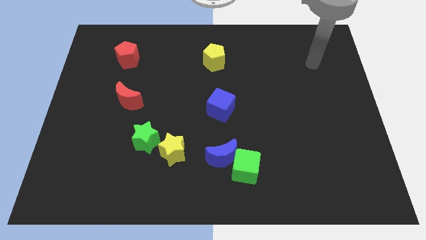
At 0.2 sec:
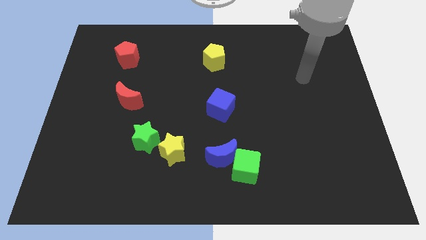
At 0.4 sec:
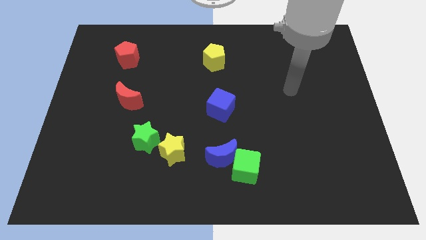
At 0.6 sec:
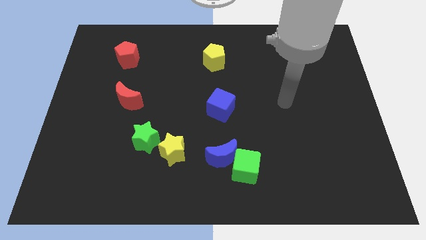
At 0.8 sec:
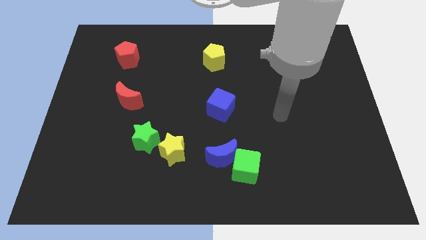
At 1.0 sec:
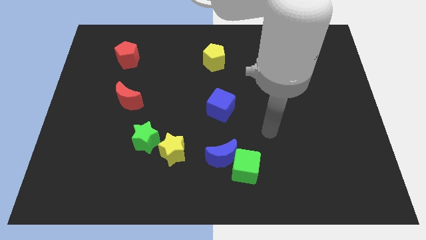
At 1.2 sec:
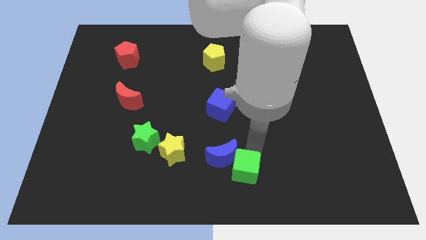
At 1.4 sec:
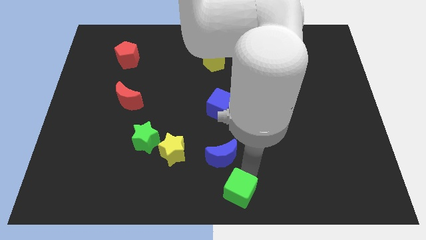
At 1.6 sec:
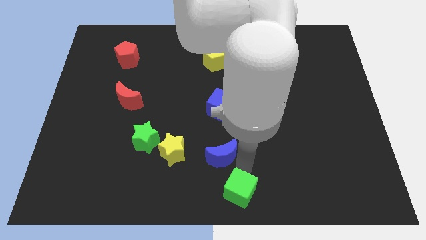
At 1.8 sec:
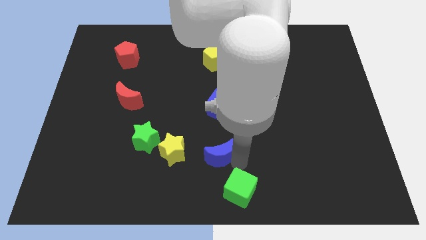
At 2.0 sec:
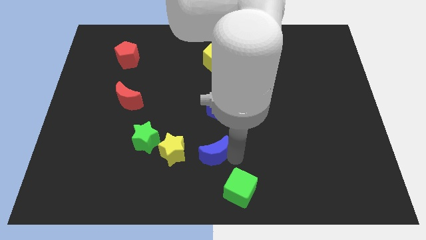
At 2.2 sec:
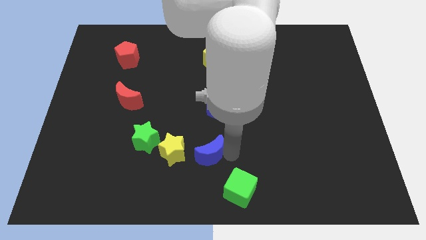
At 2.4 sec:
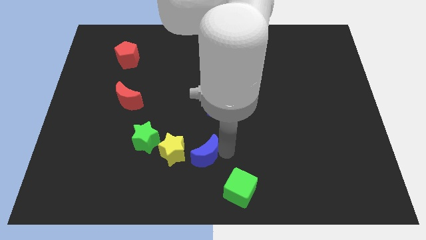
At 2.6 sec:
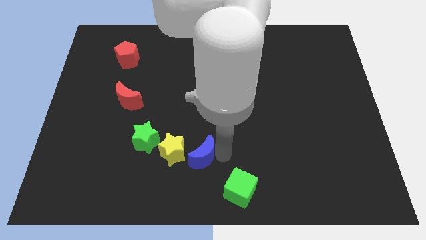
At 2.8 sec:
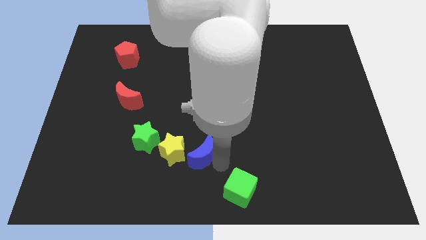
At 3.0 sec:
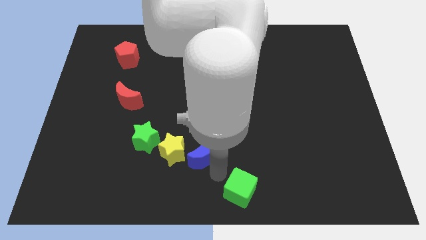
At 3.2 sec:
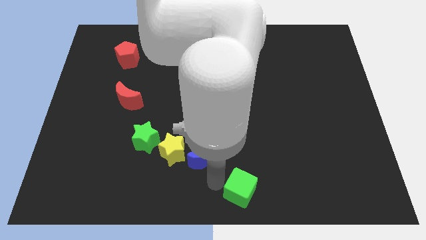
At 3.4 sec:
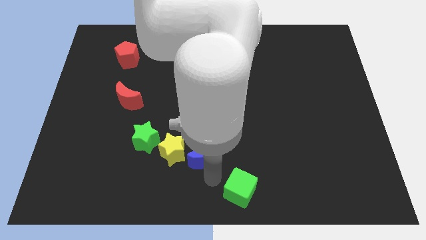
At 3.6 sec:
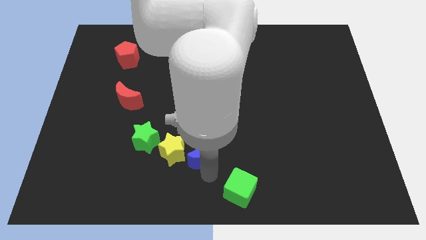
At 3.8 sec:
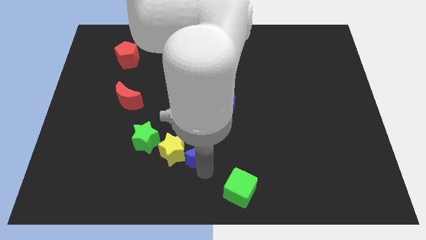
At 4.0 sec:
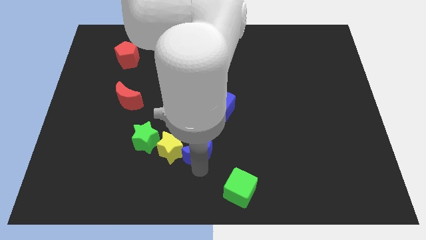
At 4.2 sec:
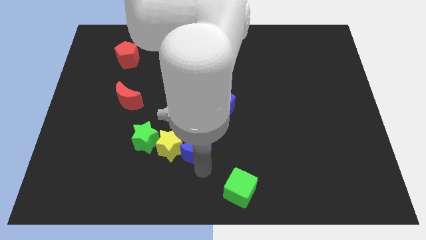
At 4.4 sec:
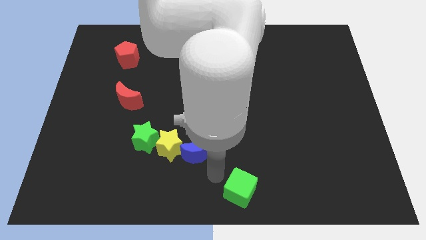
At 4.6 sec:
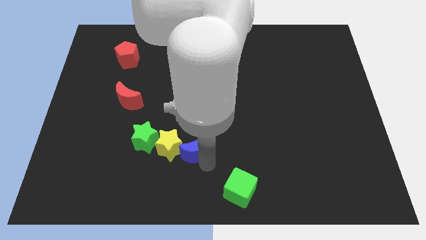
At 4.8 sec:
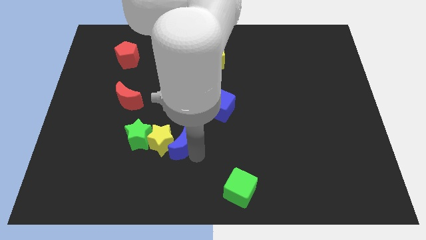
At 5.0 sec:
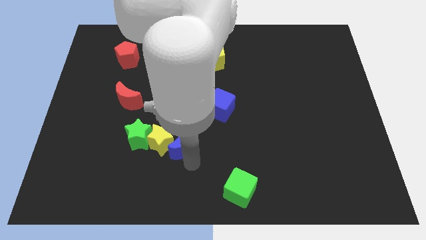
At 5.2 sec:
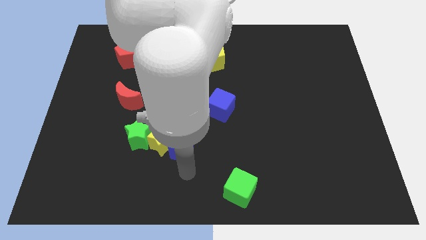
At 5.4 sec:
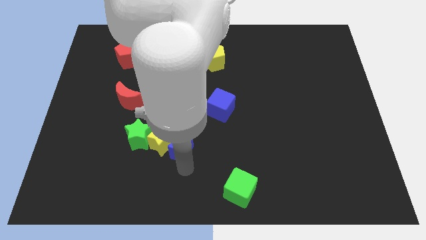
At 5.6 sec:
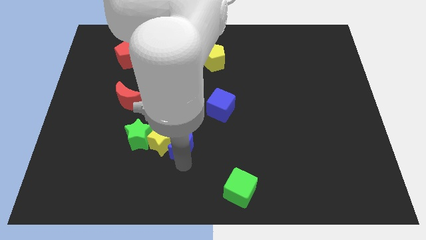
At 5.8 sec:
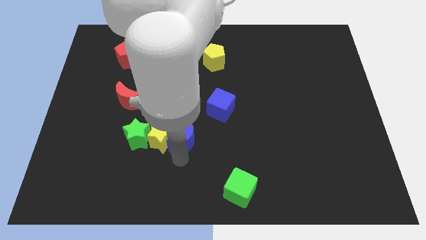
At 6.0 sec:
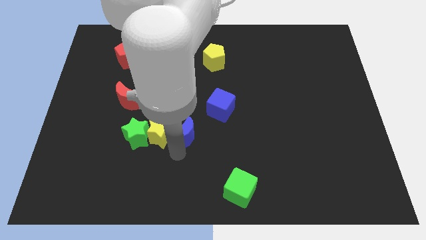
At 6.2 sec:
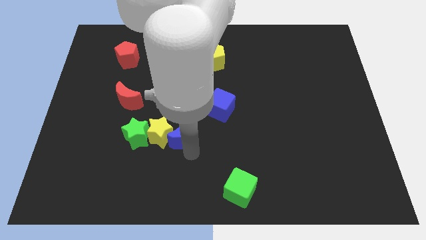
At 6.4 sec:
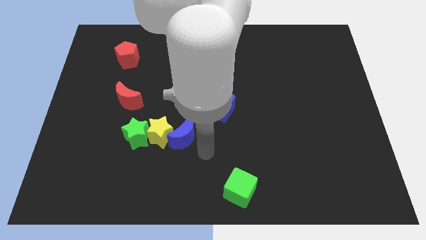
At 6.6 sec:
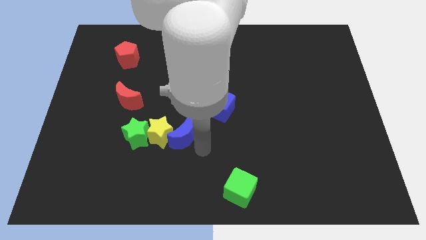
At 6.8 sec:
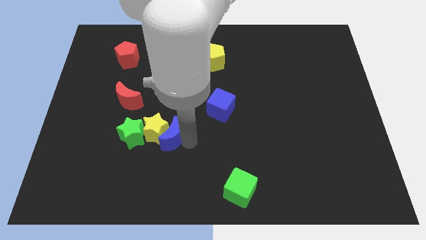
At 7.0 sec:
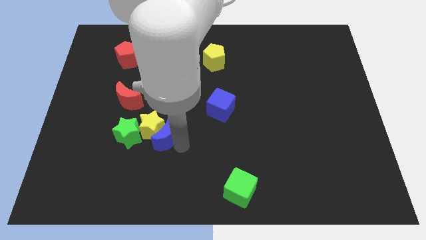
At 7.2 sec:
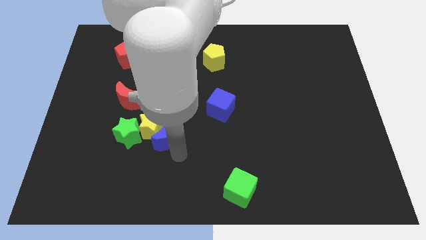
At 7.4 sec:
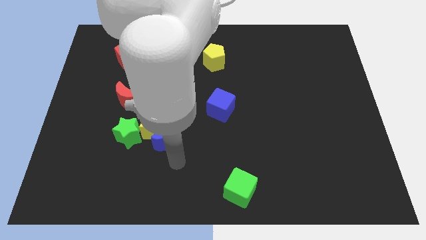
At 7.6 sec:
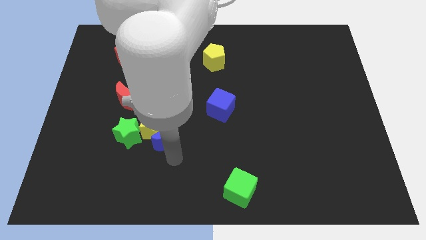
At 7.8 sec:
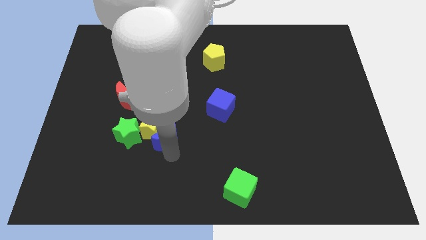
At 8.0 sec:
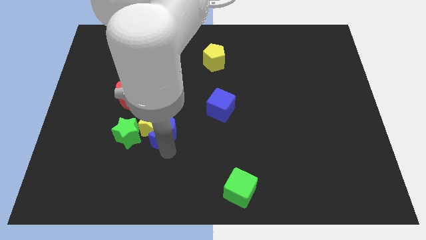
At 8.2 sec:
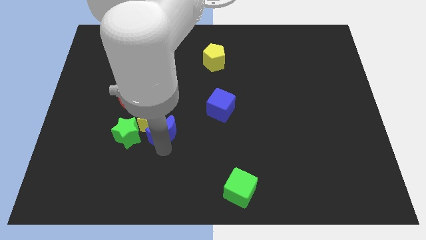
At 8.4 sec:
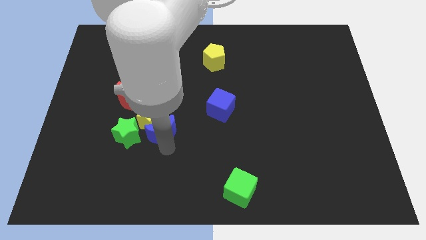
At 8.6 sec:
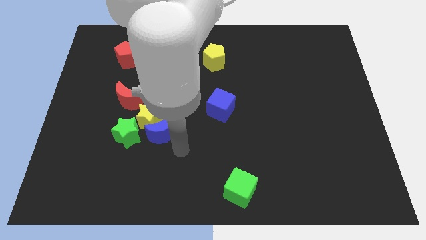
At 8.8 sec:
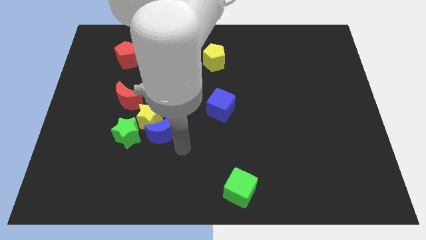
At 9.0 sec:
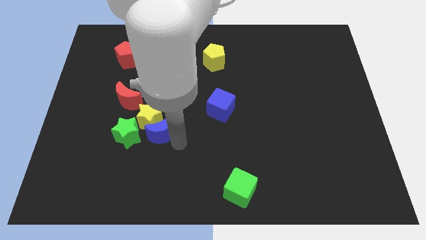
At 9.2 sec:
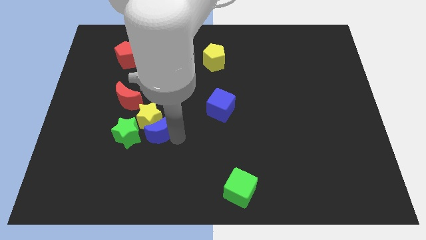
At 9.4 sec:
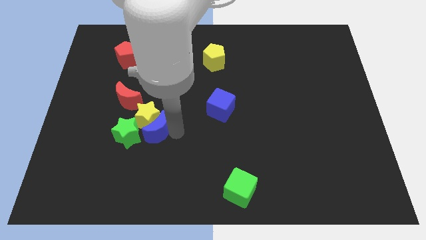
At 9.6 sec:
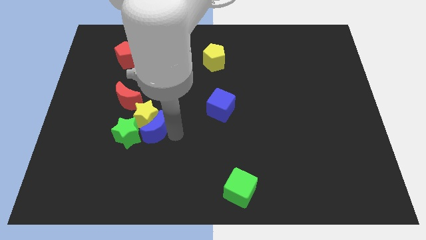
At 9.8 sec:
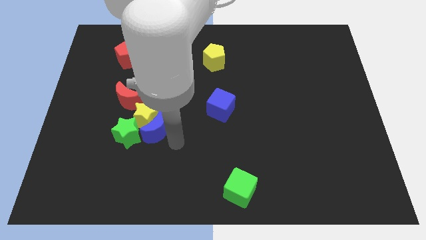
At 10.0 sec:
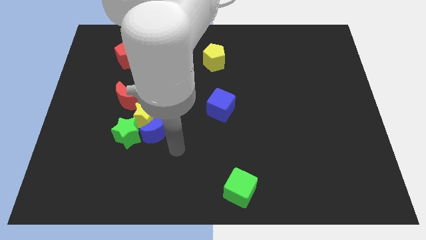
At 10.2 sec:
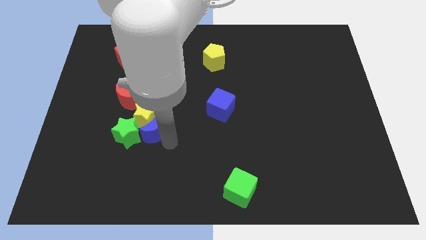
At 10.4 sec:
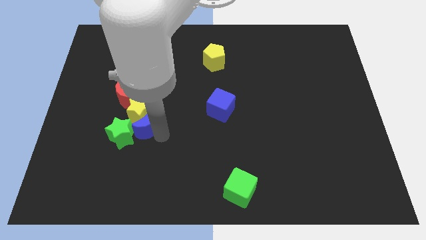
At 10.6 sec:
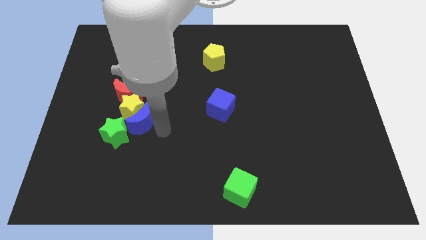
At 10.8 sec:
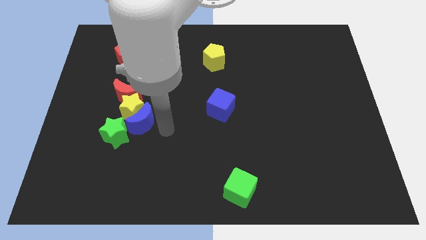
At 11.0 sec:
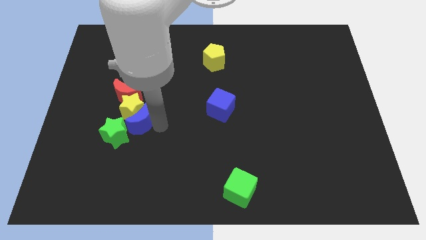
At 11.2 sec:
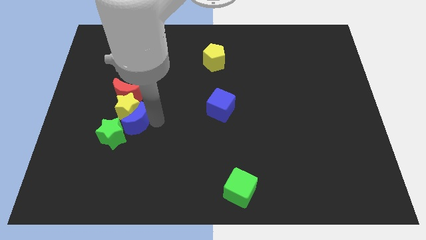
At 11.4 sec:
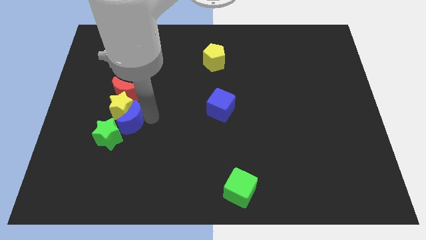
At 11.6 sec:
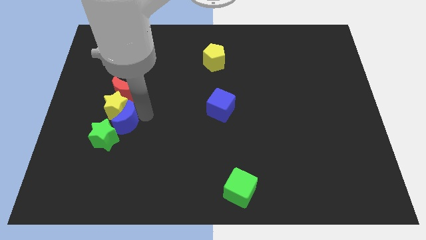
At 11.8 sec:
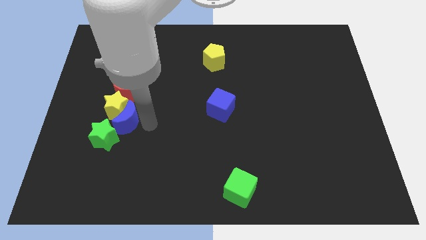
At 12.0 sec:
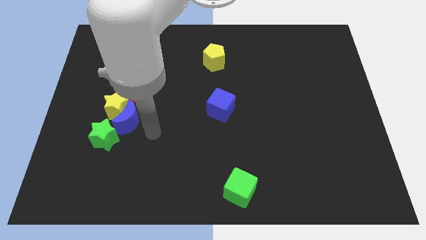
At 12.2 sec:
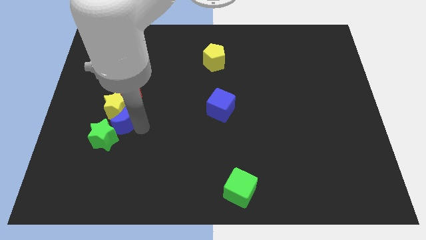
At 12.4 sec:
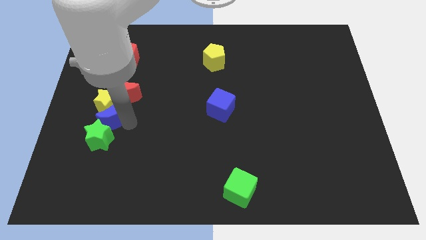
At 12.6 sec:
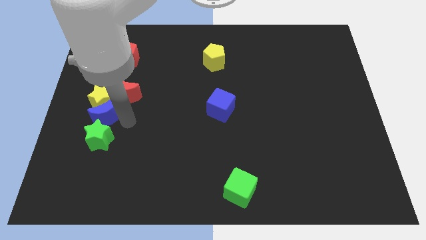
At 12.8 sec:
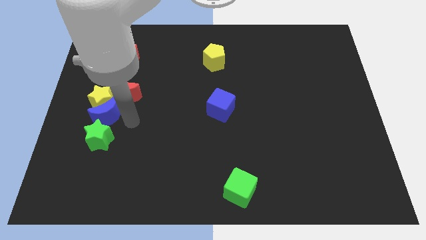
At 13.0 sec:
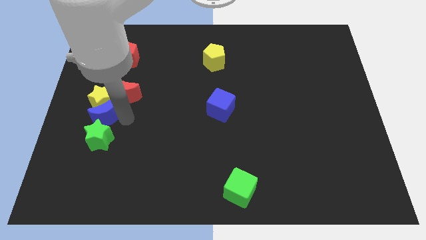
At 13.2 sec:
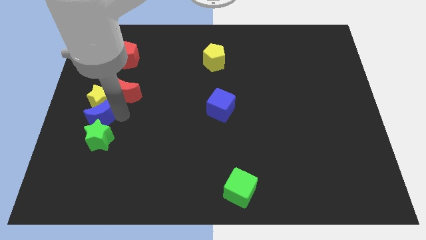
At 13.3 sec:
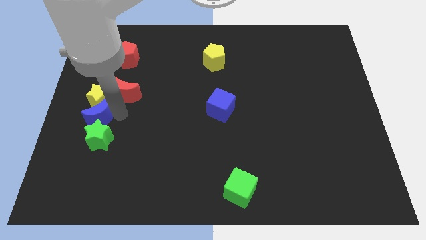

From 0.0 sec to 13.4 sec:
put the blue moon to the left side
